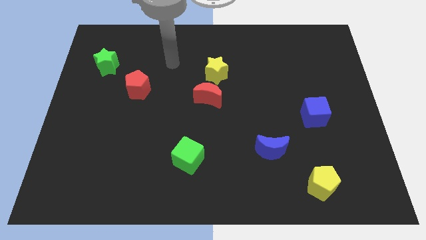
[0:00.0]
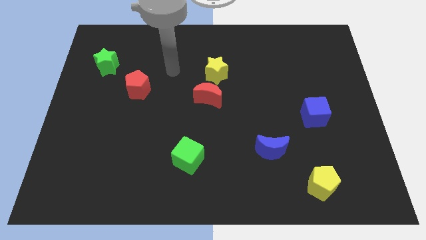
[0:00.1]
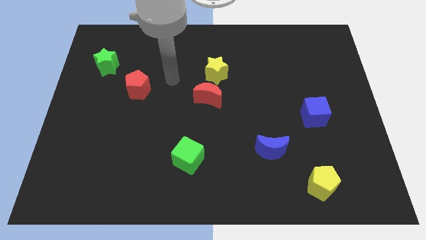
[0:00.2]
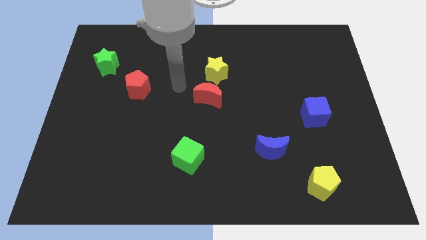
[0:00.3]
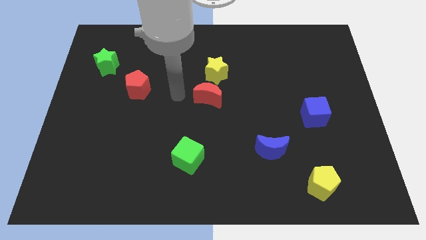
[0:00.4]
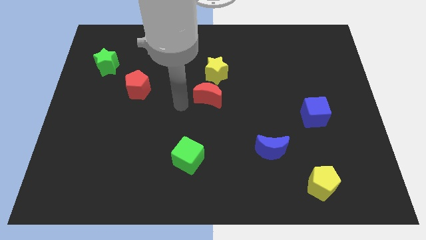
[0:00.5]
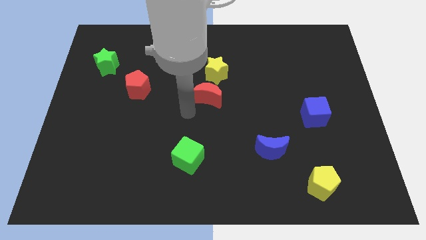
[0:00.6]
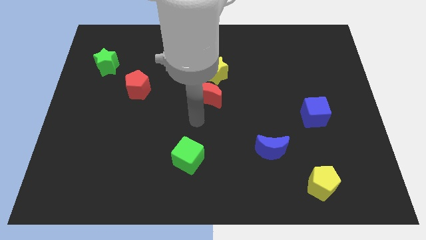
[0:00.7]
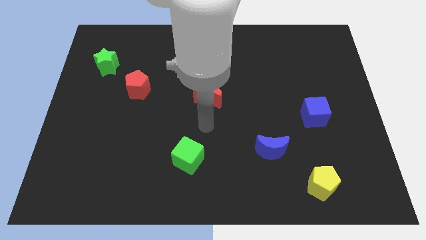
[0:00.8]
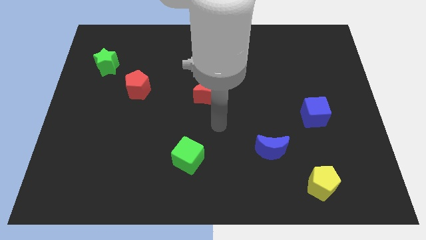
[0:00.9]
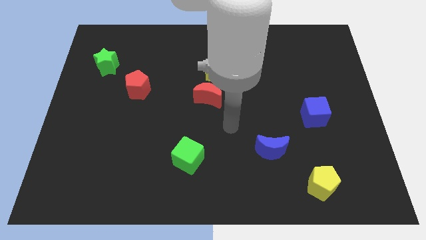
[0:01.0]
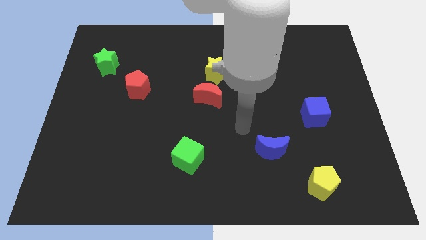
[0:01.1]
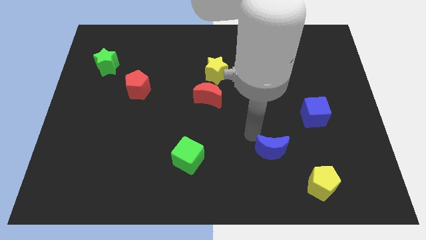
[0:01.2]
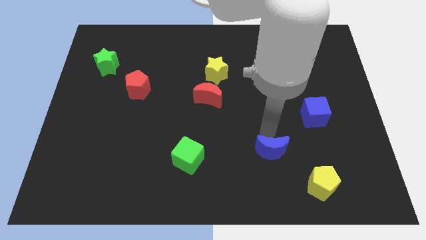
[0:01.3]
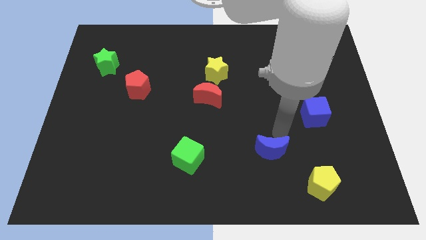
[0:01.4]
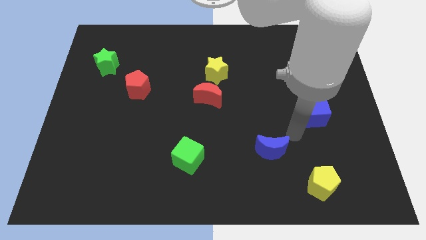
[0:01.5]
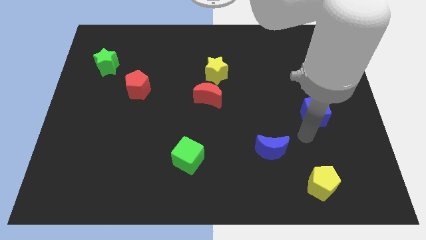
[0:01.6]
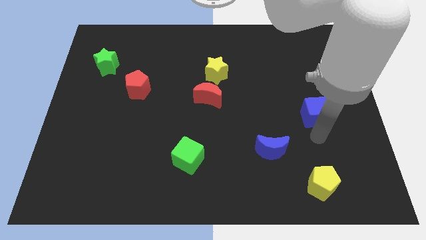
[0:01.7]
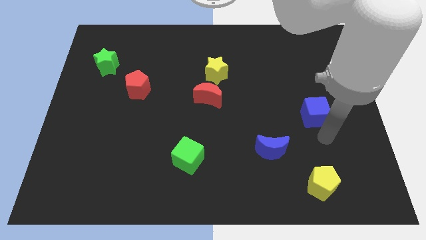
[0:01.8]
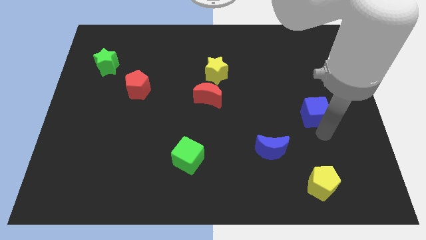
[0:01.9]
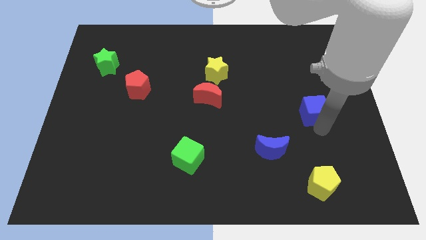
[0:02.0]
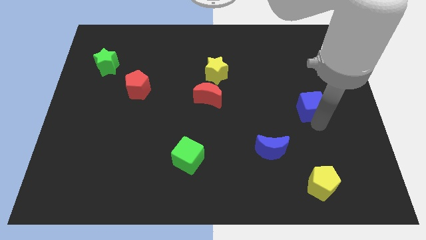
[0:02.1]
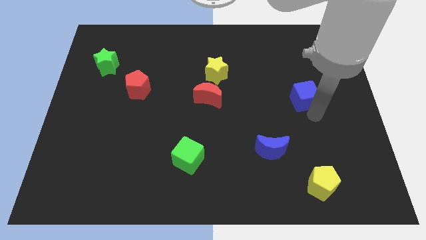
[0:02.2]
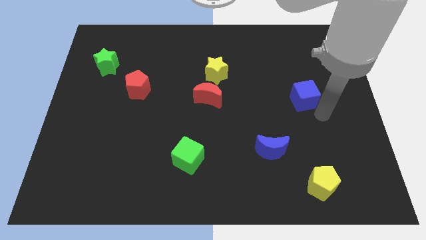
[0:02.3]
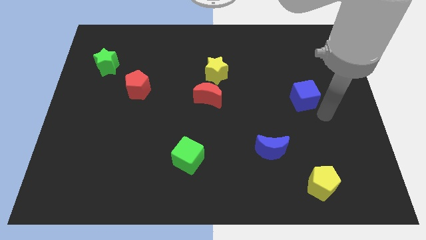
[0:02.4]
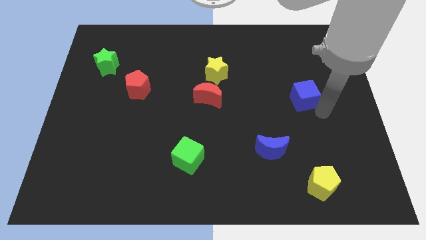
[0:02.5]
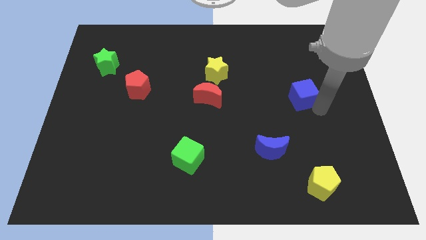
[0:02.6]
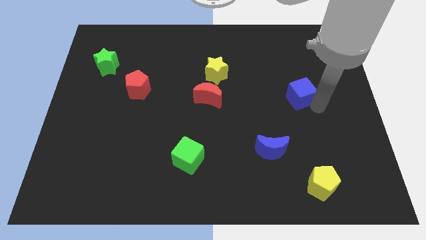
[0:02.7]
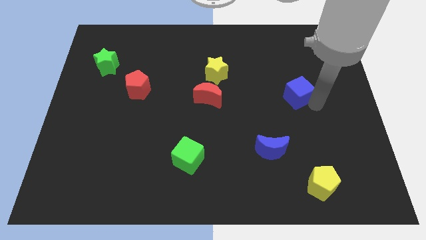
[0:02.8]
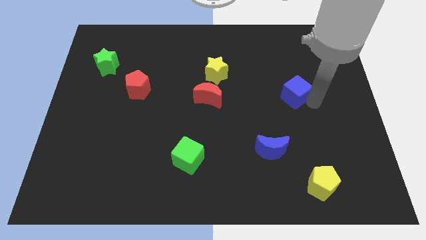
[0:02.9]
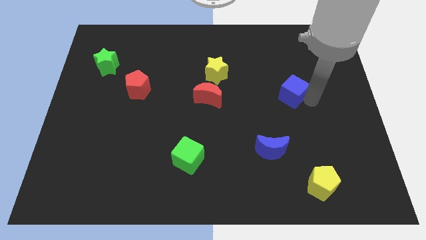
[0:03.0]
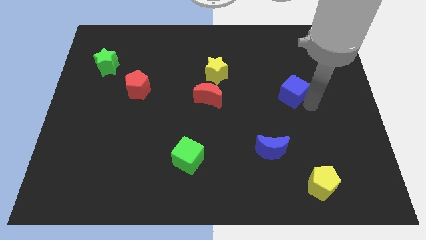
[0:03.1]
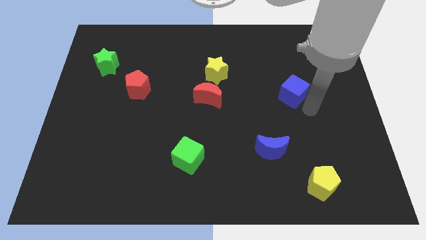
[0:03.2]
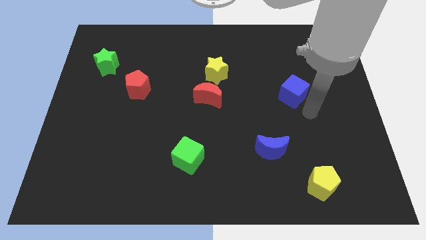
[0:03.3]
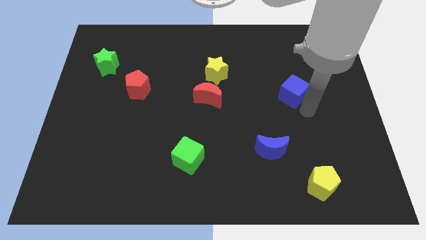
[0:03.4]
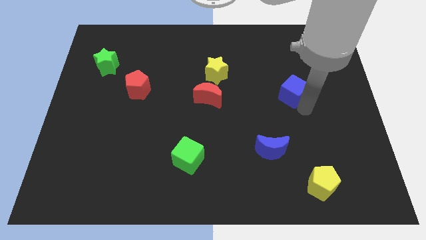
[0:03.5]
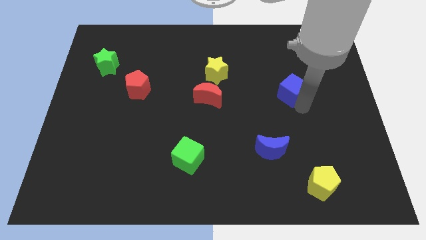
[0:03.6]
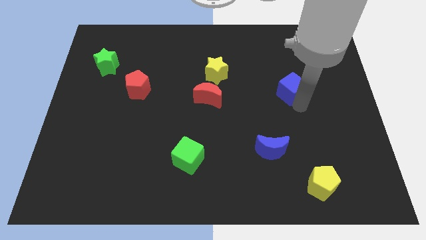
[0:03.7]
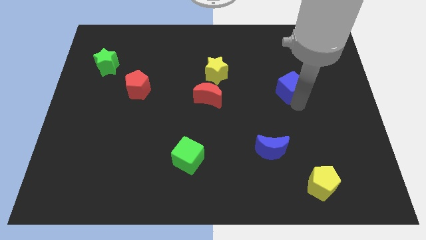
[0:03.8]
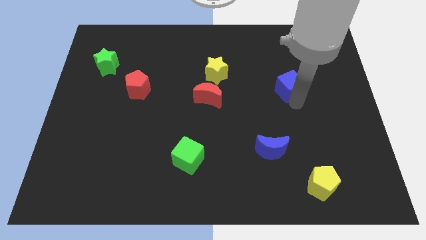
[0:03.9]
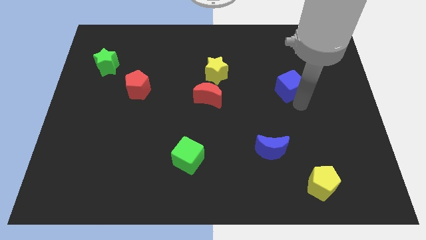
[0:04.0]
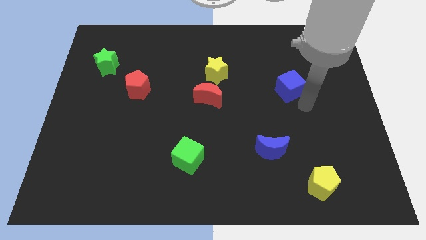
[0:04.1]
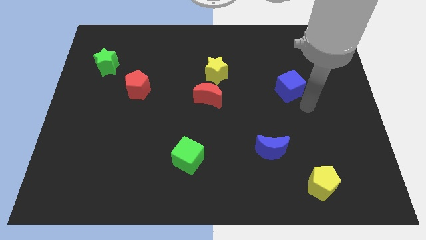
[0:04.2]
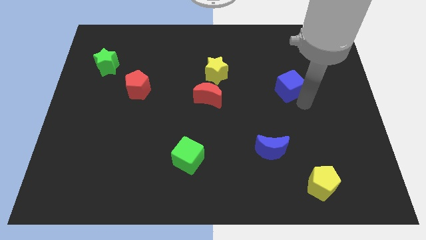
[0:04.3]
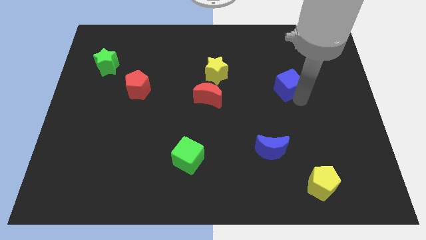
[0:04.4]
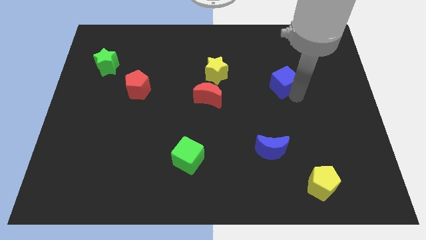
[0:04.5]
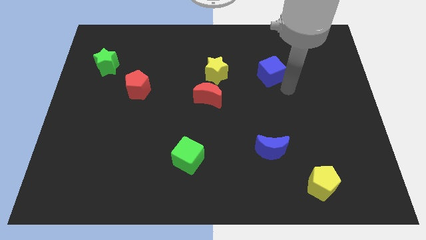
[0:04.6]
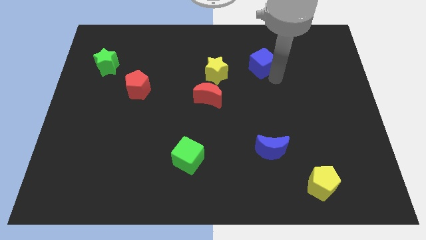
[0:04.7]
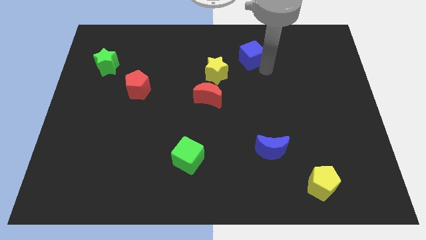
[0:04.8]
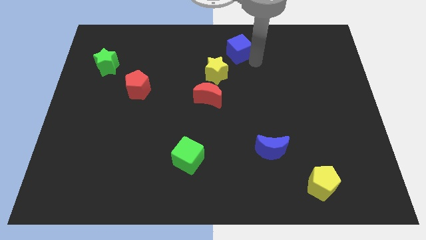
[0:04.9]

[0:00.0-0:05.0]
slide the blue cube to the towards your base

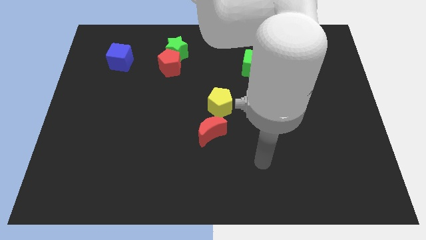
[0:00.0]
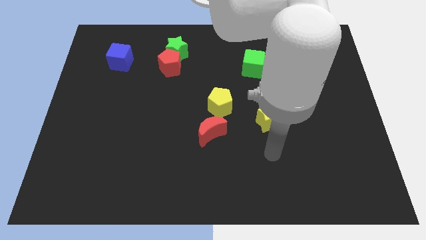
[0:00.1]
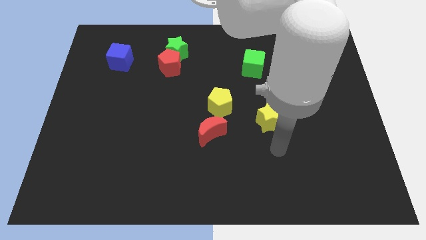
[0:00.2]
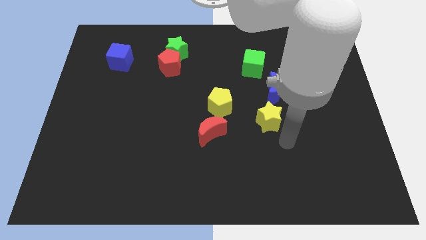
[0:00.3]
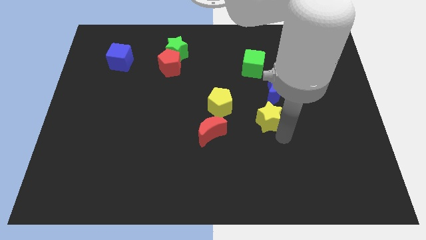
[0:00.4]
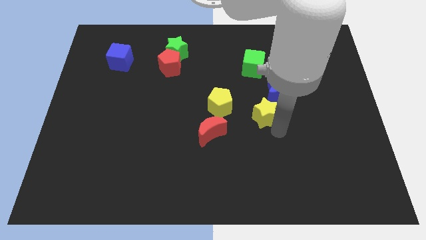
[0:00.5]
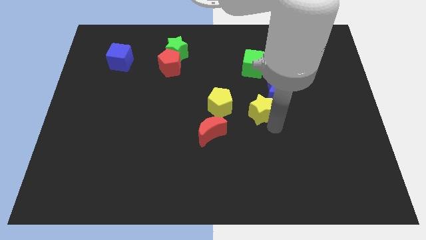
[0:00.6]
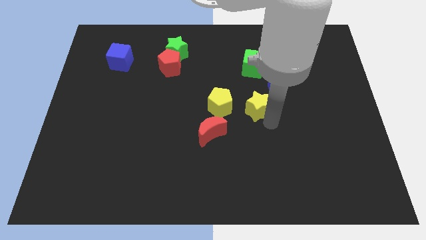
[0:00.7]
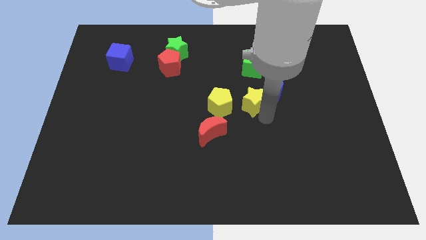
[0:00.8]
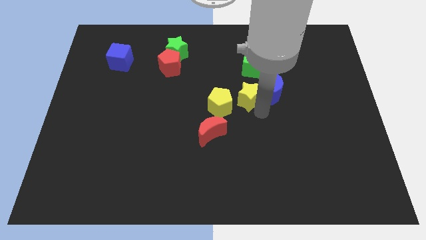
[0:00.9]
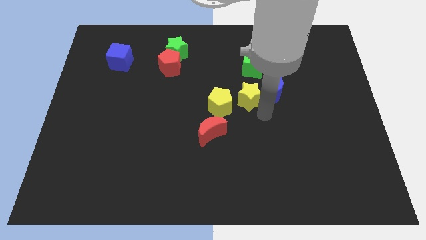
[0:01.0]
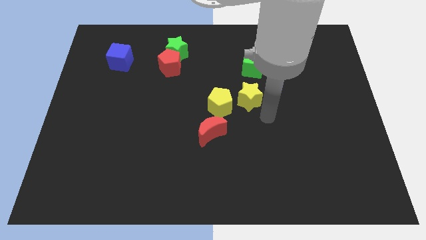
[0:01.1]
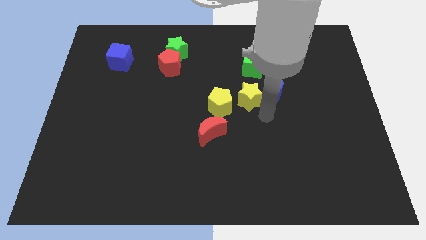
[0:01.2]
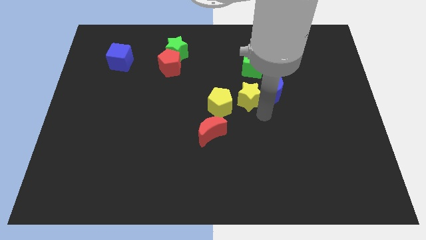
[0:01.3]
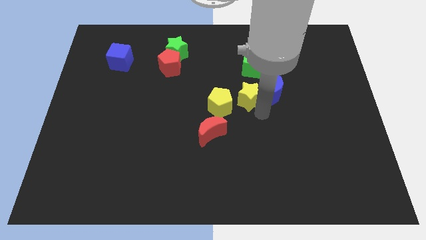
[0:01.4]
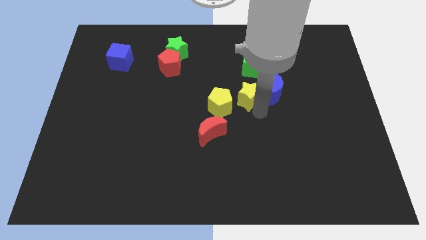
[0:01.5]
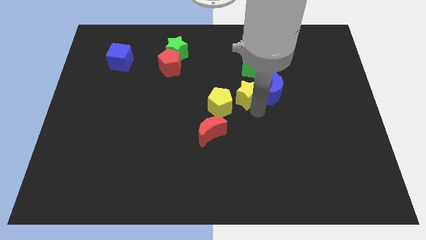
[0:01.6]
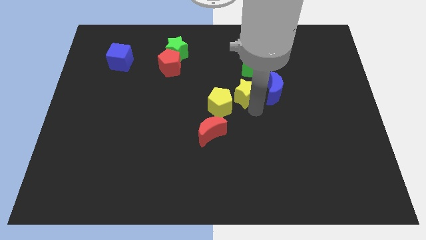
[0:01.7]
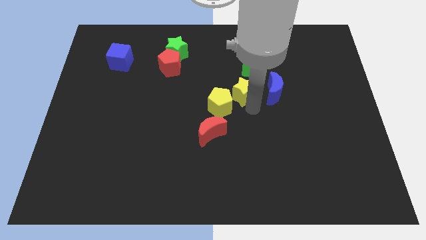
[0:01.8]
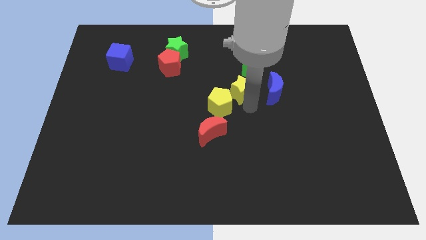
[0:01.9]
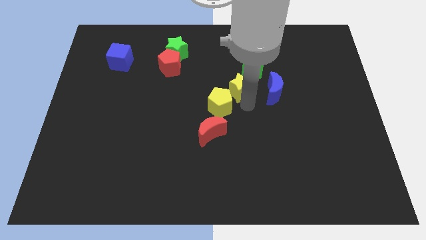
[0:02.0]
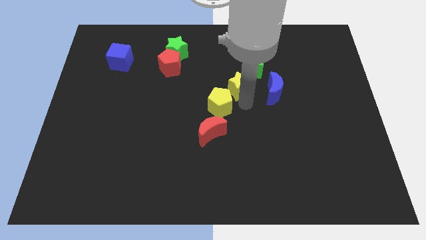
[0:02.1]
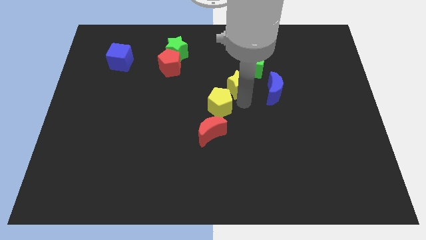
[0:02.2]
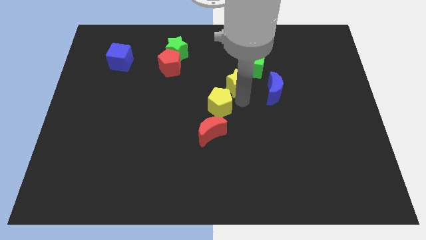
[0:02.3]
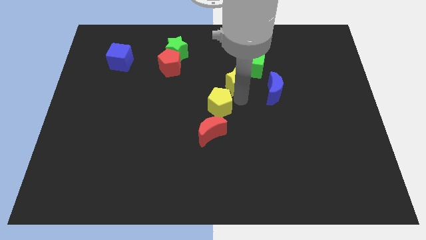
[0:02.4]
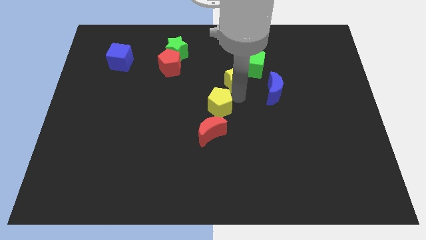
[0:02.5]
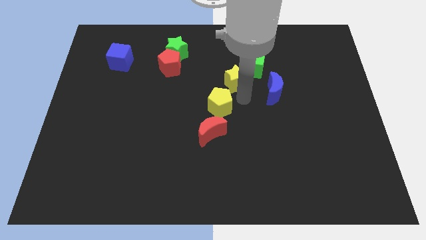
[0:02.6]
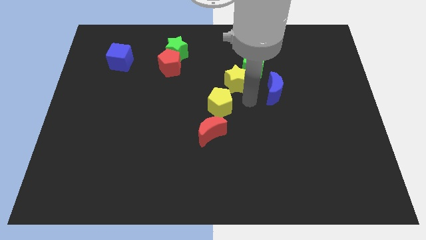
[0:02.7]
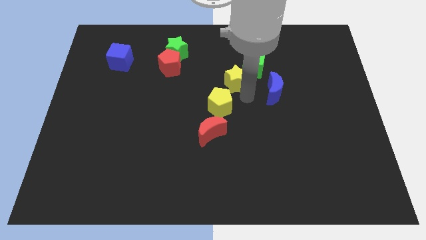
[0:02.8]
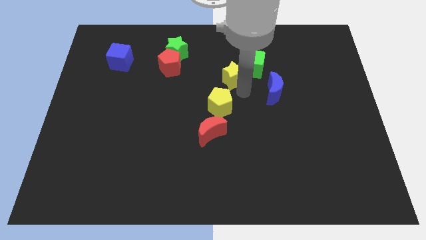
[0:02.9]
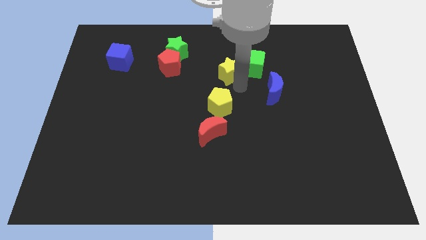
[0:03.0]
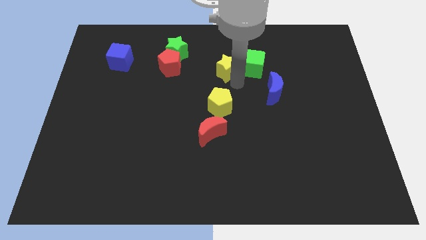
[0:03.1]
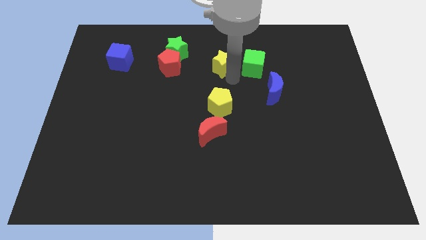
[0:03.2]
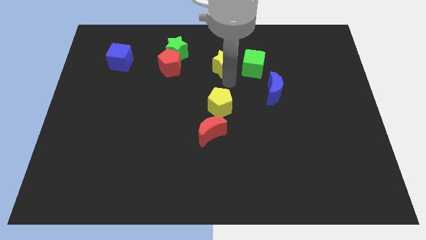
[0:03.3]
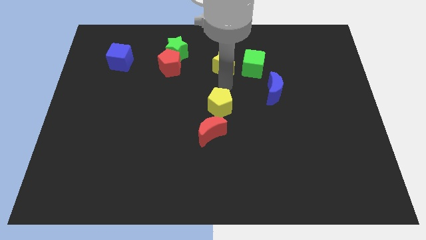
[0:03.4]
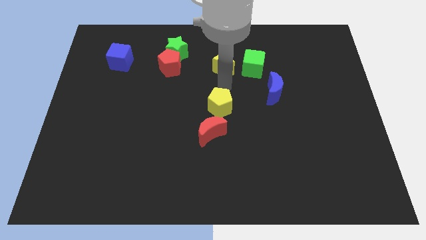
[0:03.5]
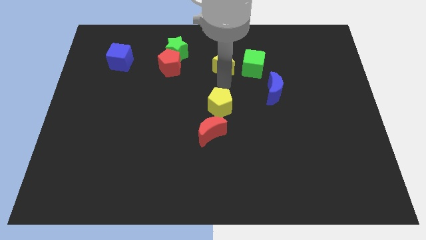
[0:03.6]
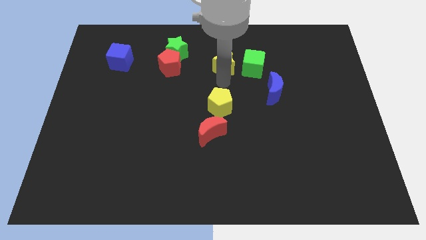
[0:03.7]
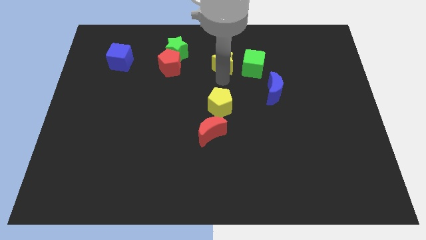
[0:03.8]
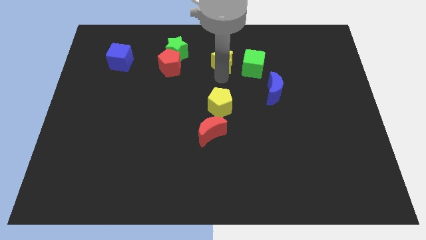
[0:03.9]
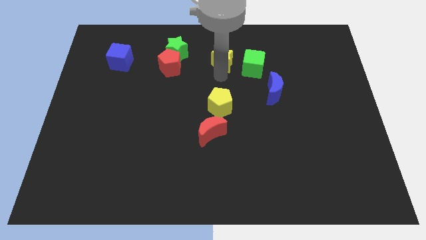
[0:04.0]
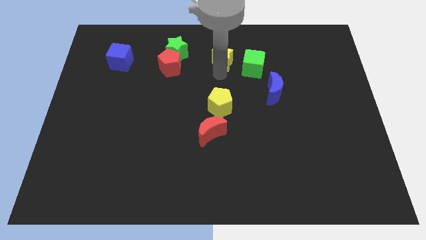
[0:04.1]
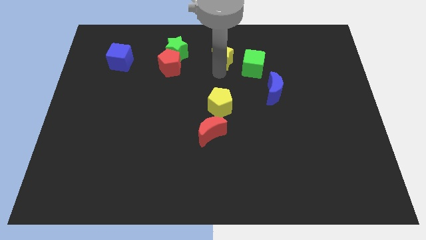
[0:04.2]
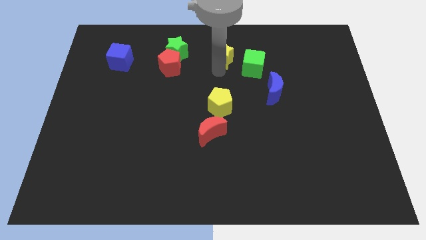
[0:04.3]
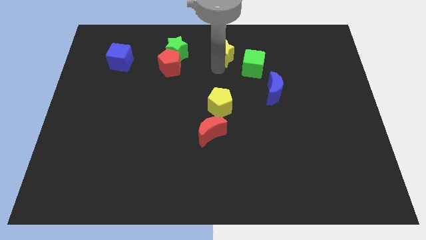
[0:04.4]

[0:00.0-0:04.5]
move the yellow star to the towards your base
